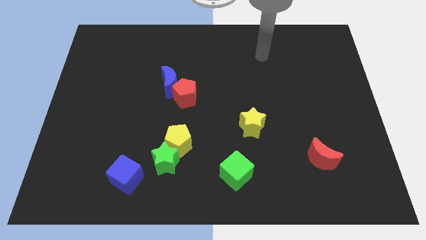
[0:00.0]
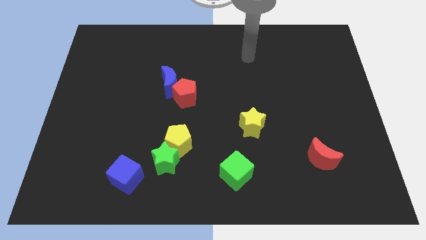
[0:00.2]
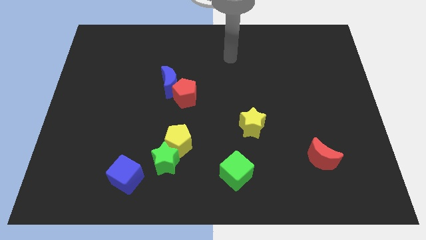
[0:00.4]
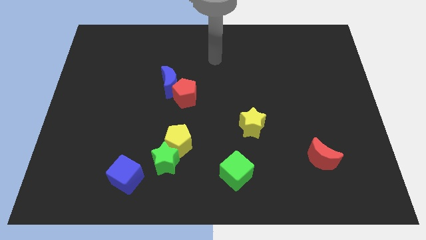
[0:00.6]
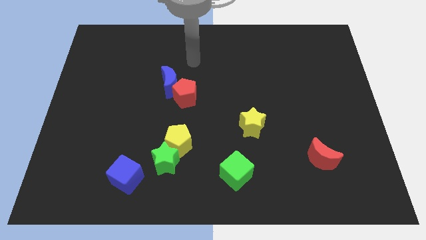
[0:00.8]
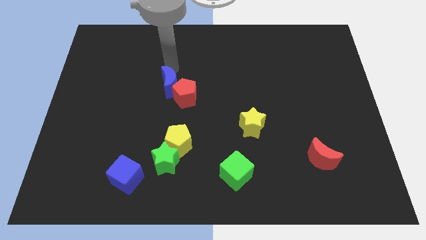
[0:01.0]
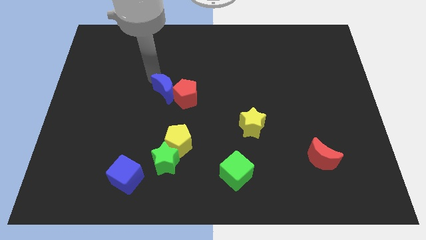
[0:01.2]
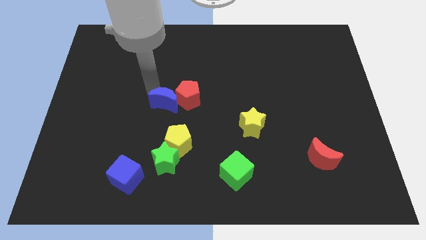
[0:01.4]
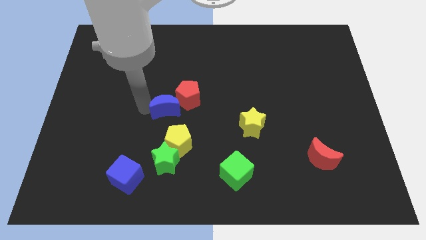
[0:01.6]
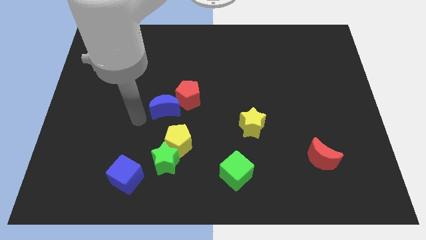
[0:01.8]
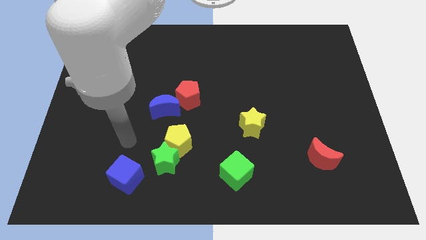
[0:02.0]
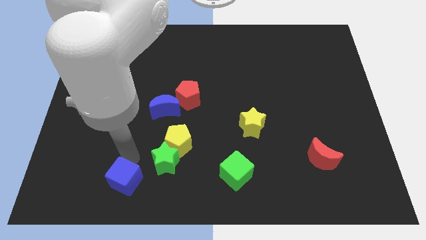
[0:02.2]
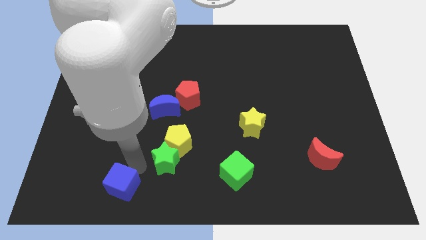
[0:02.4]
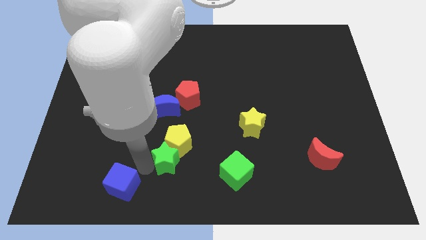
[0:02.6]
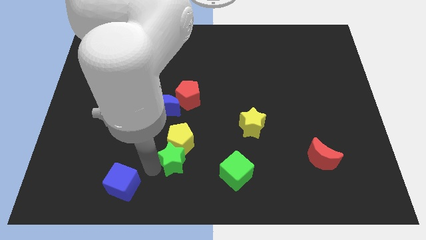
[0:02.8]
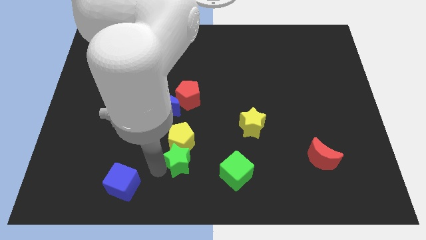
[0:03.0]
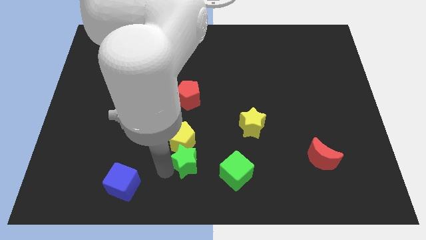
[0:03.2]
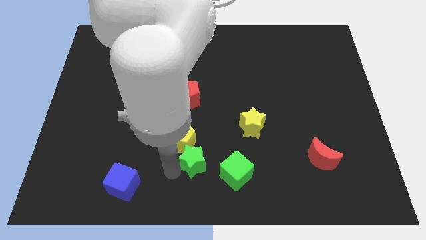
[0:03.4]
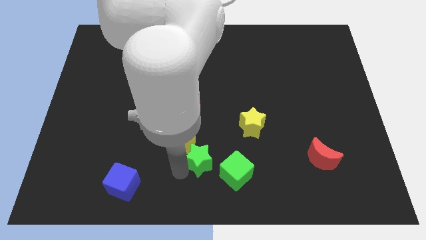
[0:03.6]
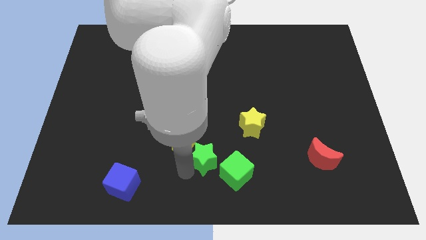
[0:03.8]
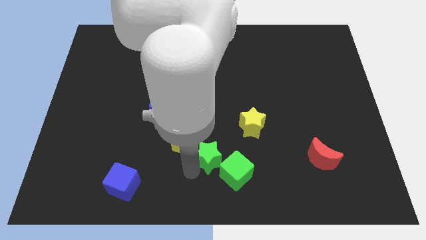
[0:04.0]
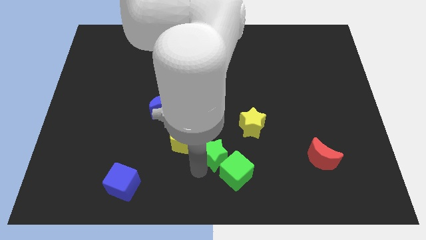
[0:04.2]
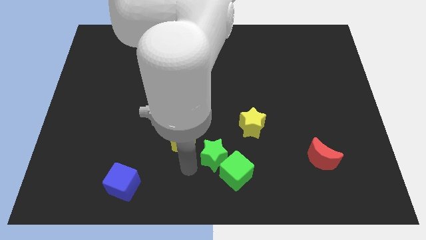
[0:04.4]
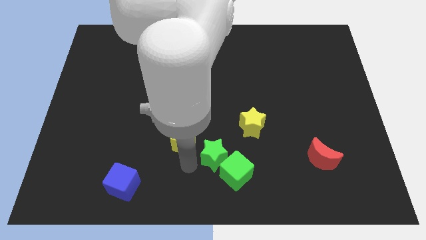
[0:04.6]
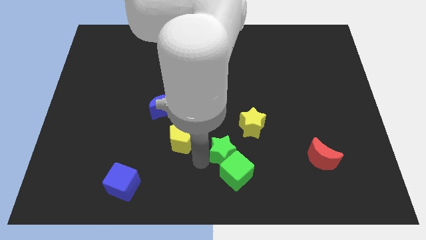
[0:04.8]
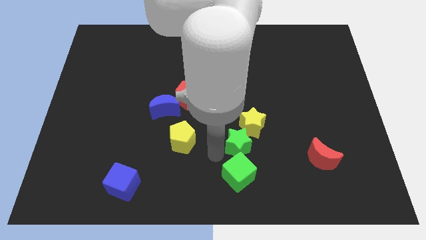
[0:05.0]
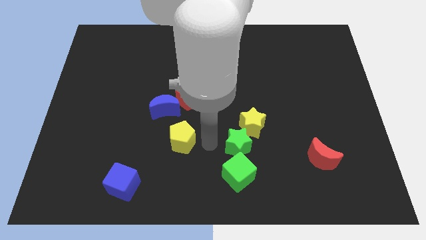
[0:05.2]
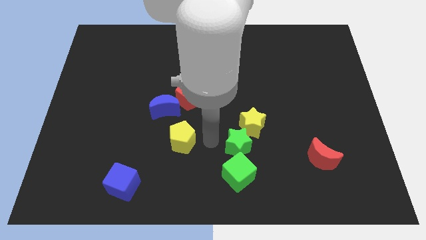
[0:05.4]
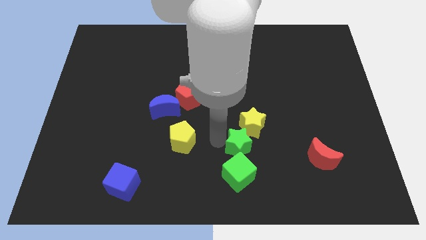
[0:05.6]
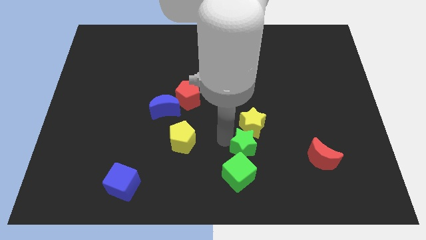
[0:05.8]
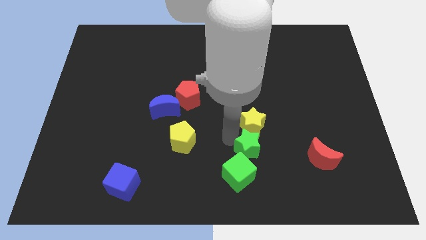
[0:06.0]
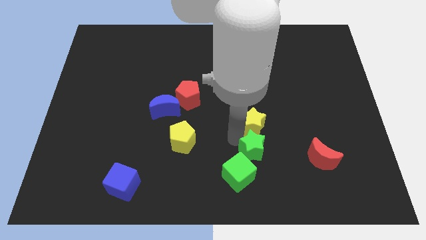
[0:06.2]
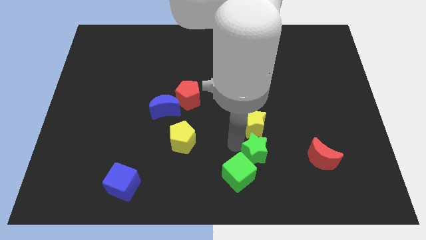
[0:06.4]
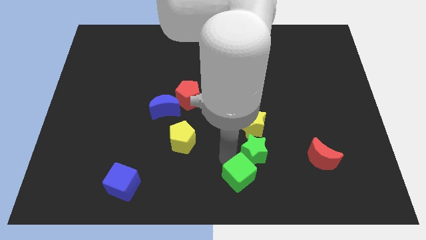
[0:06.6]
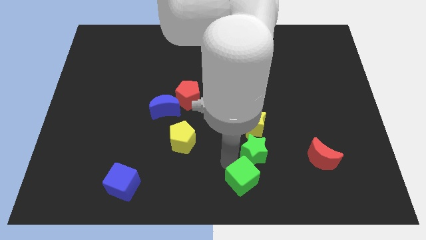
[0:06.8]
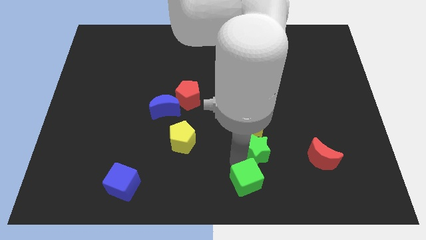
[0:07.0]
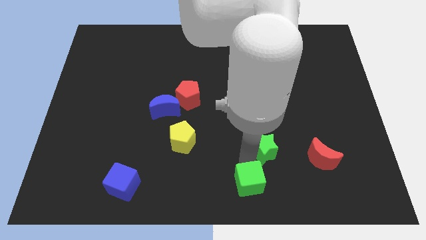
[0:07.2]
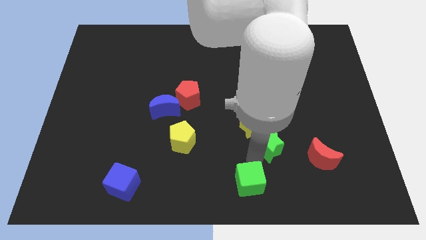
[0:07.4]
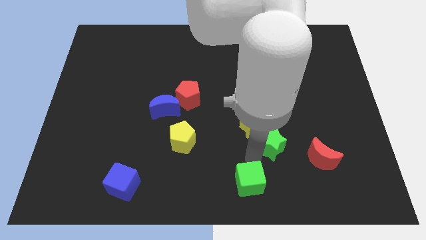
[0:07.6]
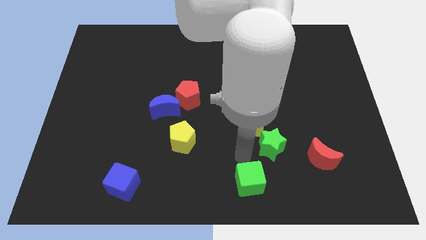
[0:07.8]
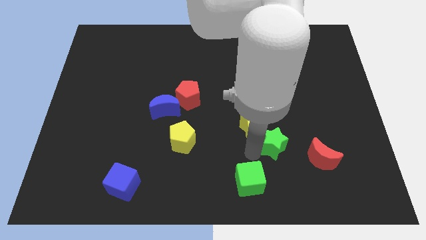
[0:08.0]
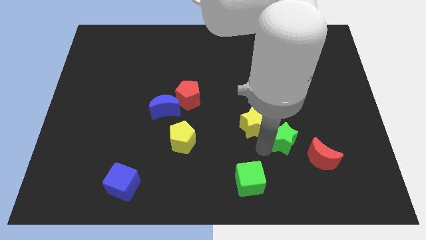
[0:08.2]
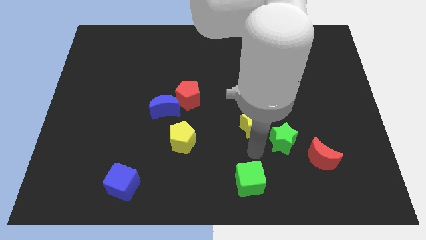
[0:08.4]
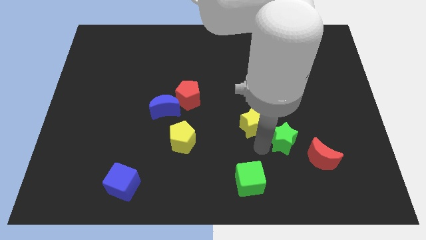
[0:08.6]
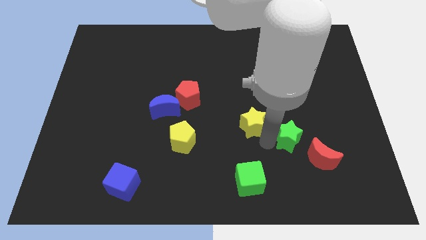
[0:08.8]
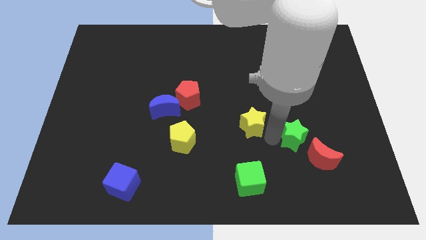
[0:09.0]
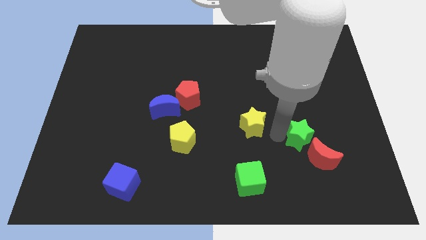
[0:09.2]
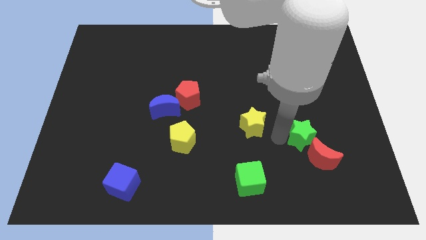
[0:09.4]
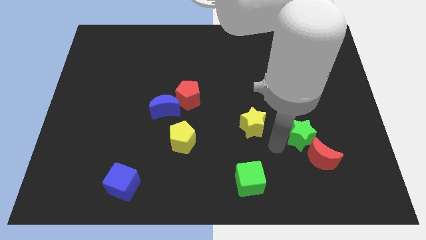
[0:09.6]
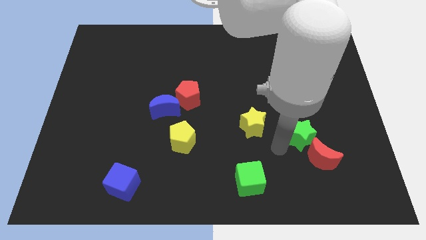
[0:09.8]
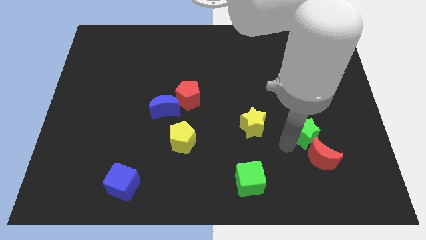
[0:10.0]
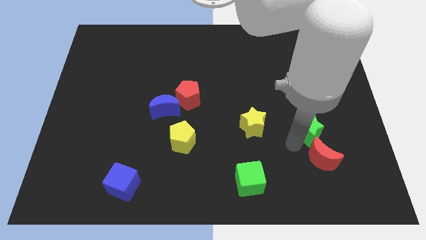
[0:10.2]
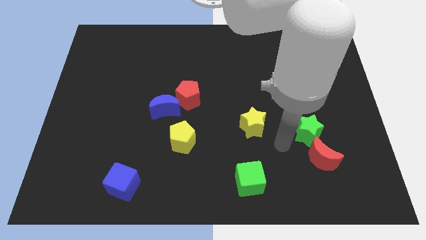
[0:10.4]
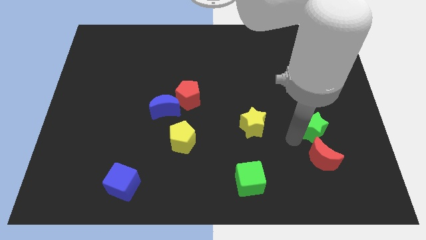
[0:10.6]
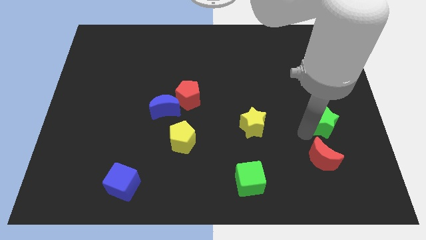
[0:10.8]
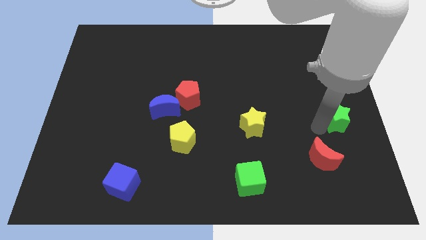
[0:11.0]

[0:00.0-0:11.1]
slide the green star to the right side of the board

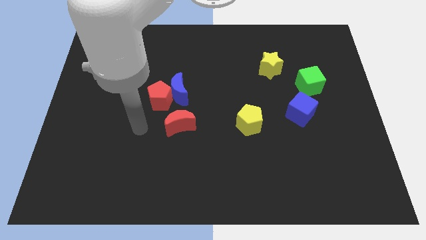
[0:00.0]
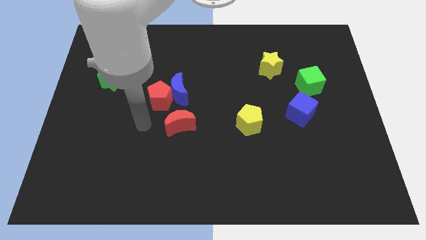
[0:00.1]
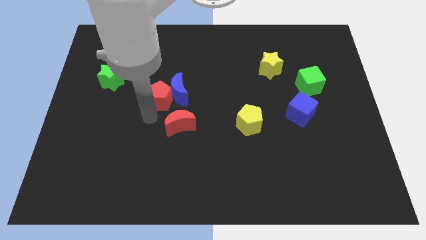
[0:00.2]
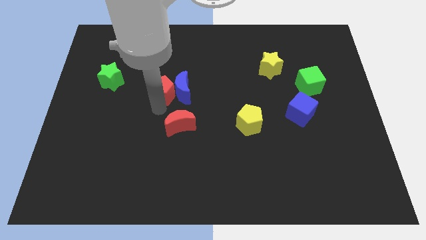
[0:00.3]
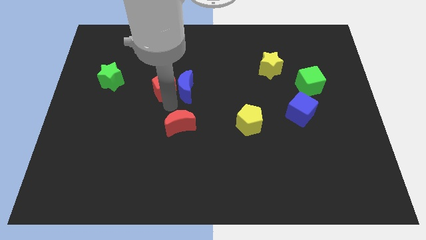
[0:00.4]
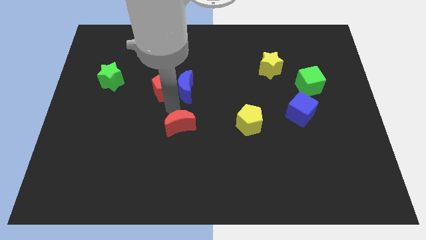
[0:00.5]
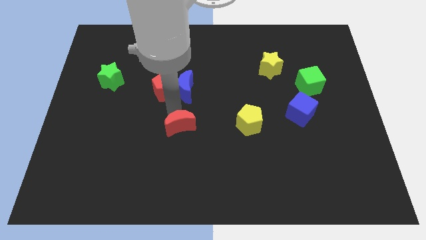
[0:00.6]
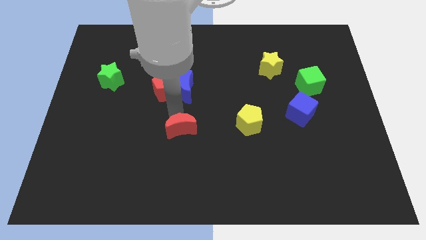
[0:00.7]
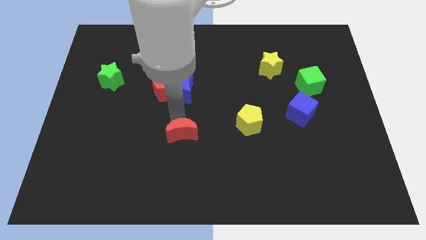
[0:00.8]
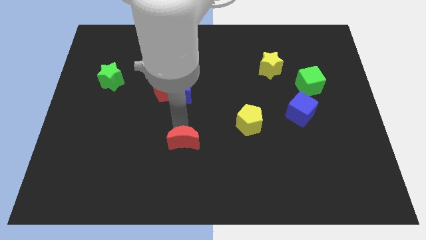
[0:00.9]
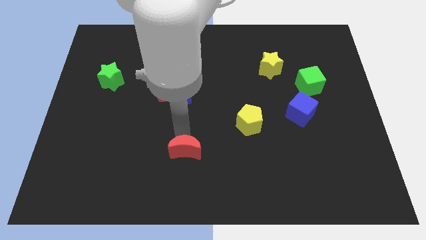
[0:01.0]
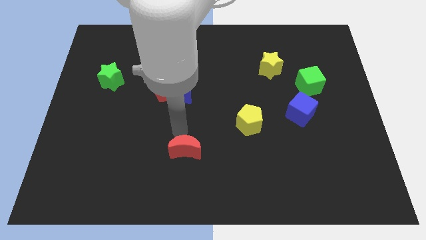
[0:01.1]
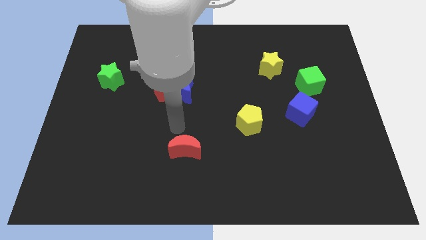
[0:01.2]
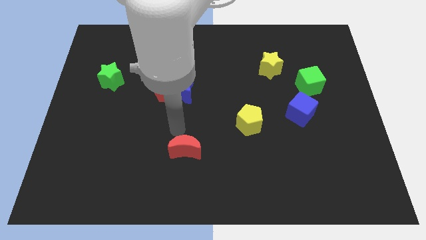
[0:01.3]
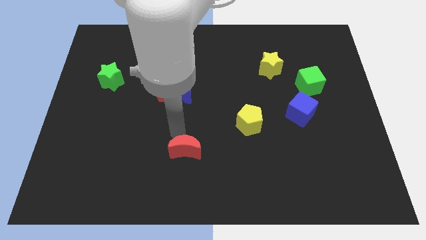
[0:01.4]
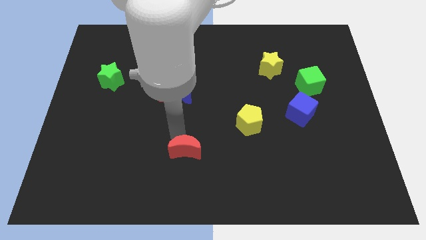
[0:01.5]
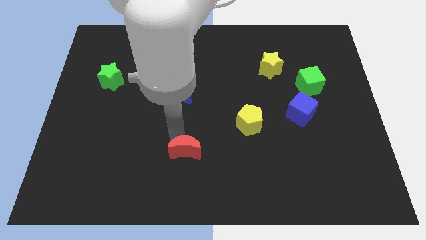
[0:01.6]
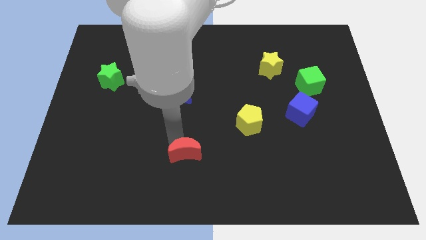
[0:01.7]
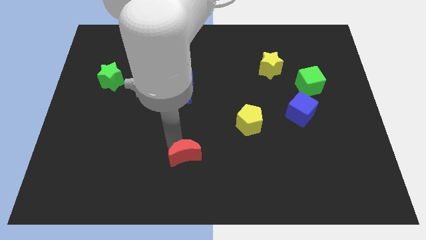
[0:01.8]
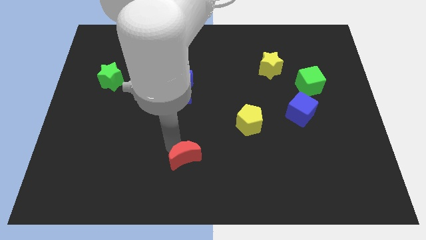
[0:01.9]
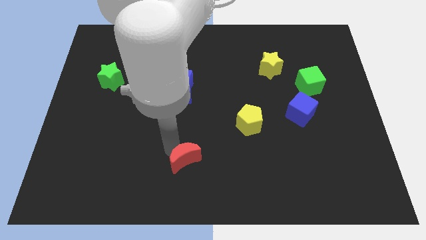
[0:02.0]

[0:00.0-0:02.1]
move the red moon to the bottom side
